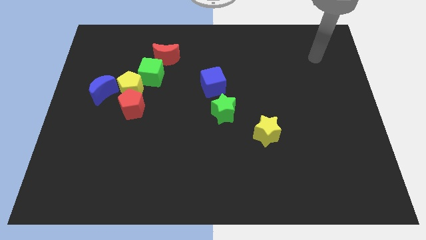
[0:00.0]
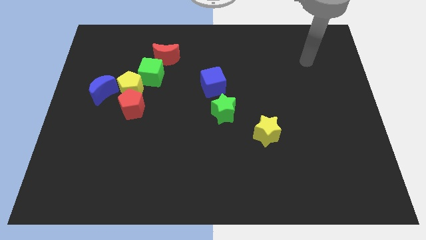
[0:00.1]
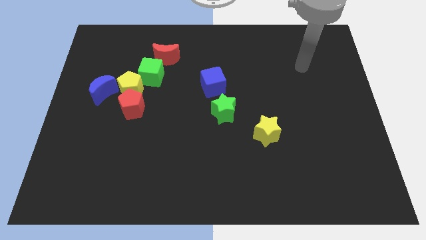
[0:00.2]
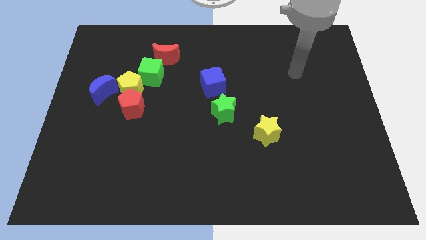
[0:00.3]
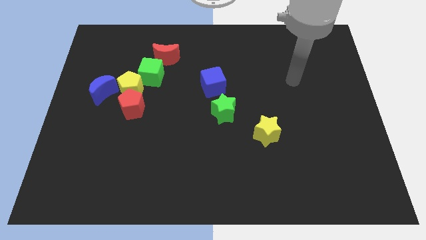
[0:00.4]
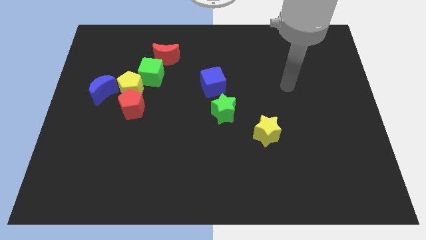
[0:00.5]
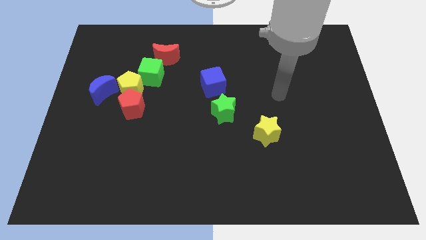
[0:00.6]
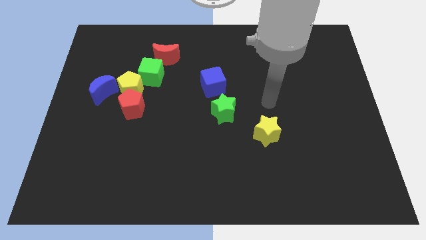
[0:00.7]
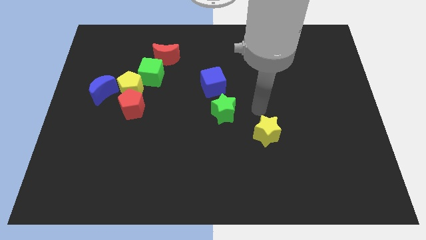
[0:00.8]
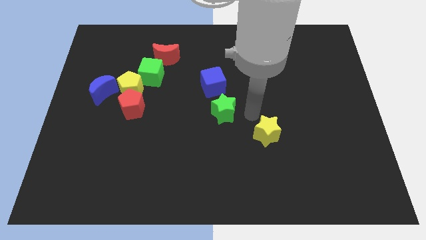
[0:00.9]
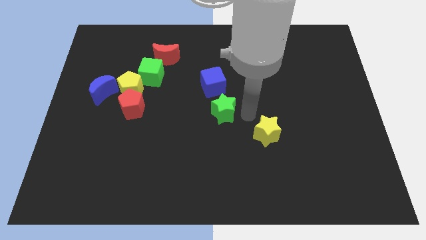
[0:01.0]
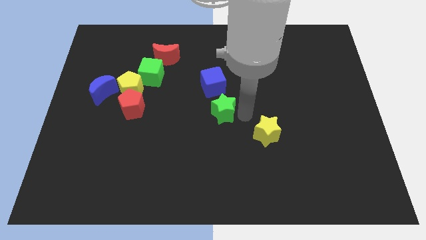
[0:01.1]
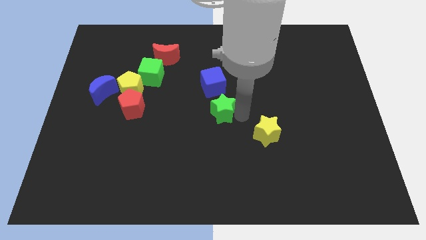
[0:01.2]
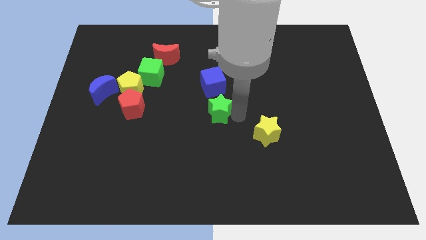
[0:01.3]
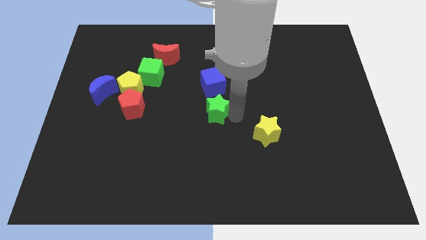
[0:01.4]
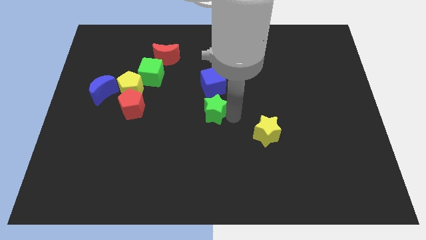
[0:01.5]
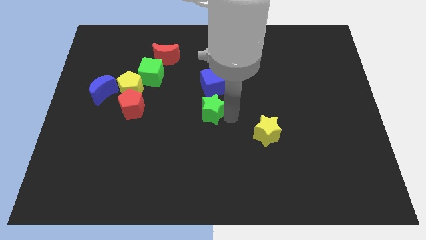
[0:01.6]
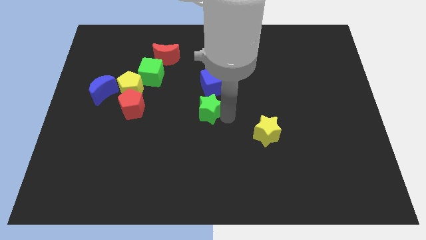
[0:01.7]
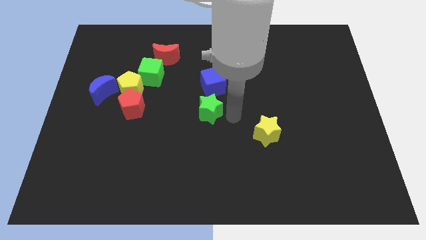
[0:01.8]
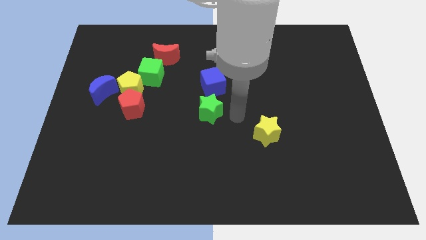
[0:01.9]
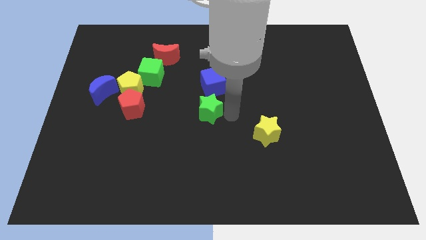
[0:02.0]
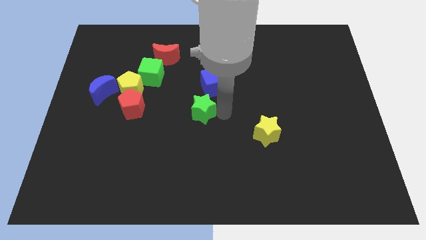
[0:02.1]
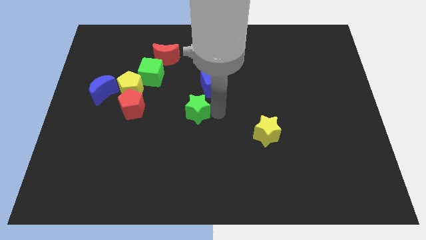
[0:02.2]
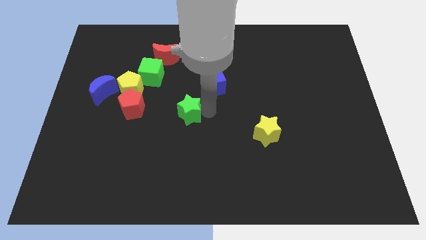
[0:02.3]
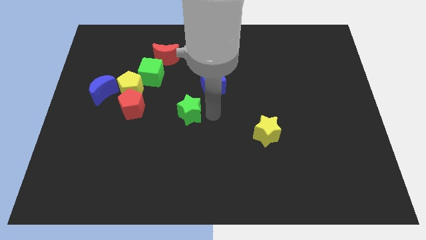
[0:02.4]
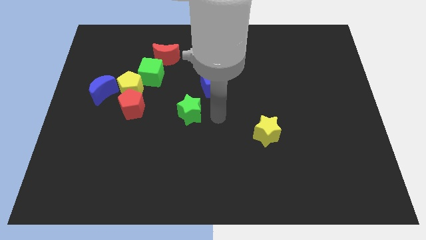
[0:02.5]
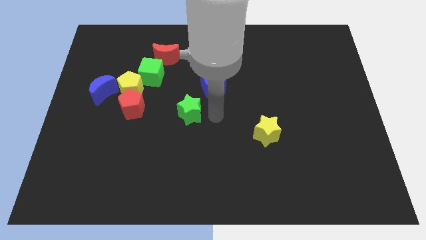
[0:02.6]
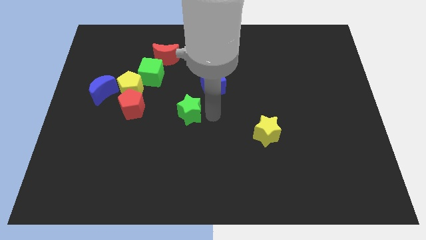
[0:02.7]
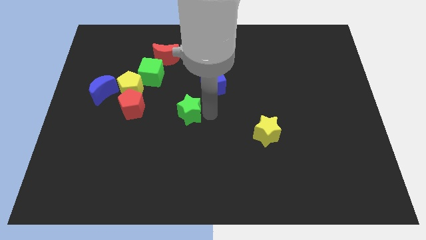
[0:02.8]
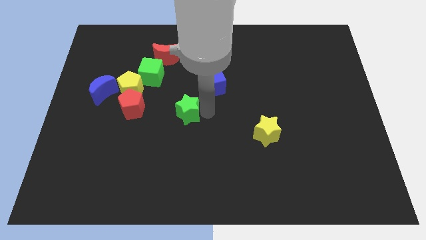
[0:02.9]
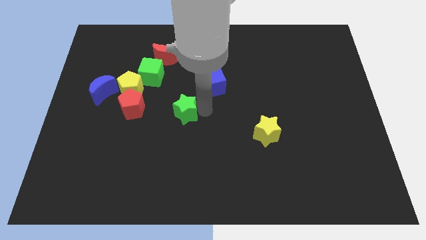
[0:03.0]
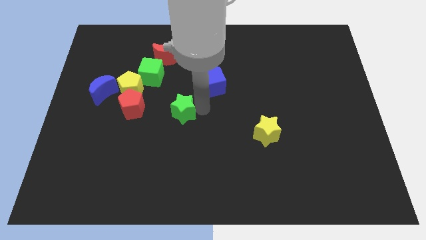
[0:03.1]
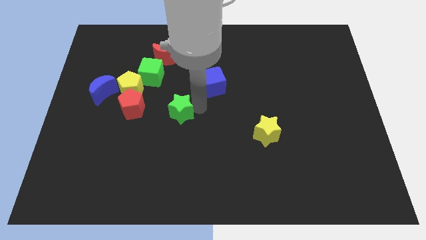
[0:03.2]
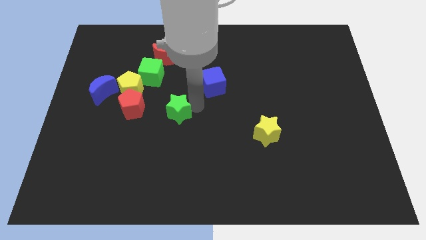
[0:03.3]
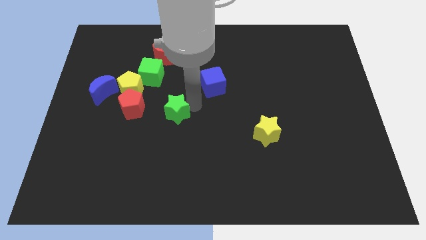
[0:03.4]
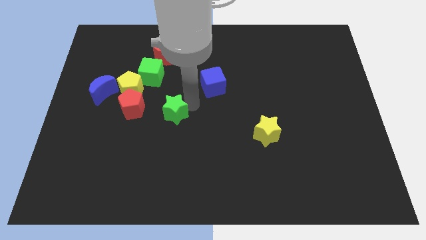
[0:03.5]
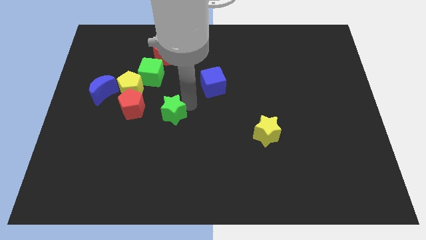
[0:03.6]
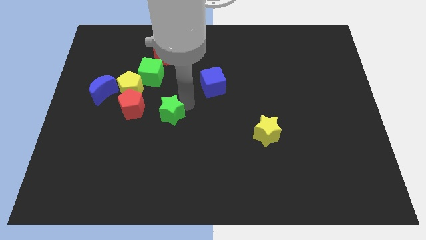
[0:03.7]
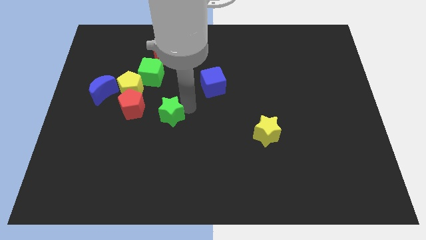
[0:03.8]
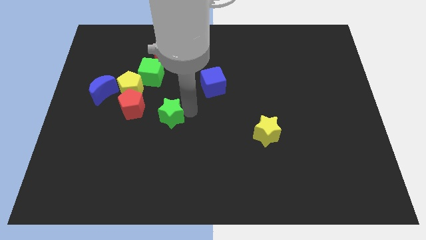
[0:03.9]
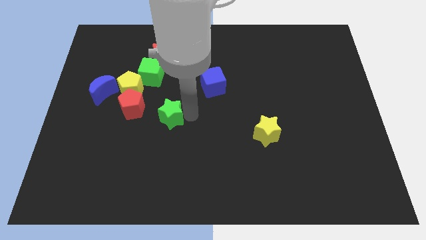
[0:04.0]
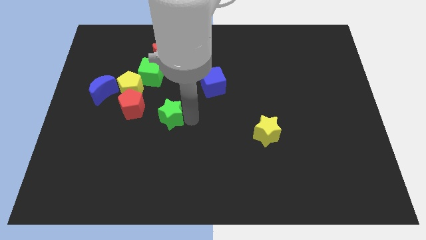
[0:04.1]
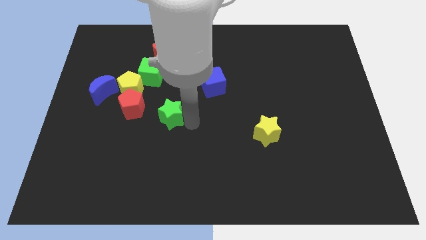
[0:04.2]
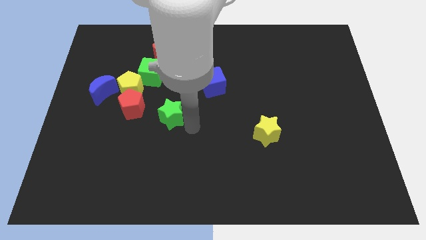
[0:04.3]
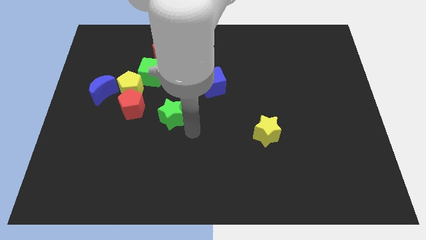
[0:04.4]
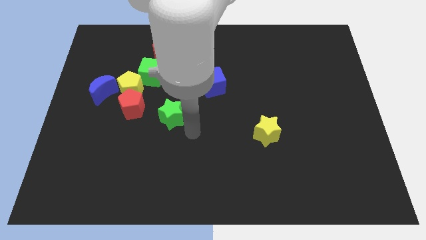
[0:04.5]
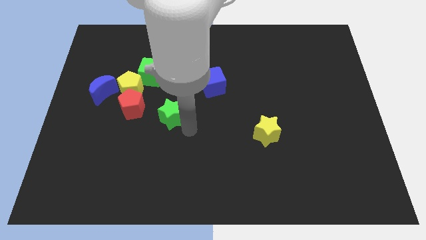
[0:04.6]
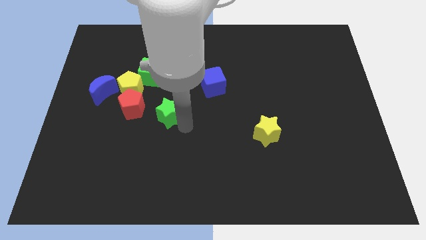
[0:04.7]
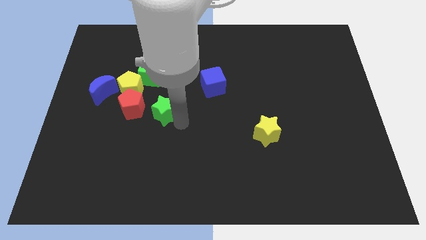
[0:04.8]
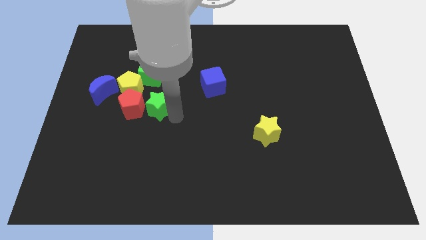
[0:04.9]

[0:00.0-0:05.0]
put the green star to the red pentagon

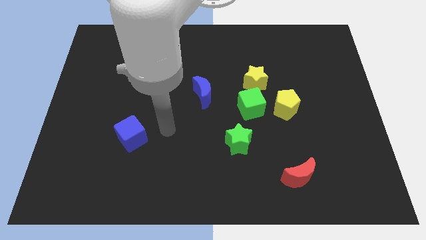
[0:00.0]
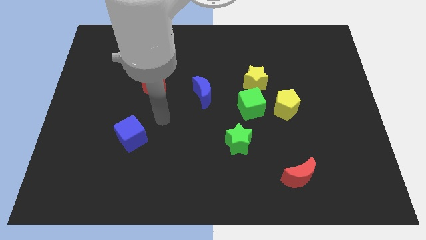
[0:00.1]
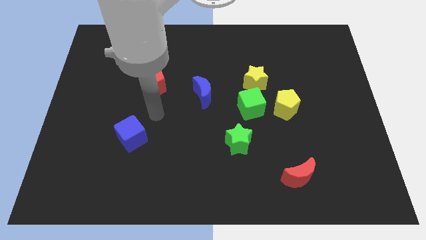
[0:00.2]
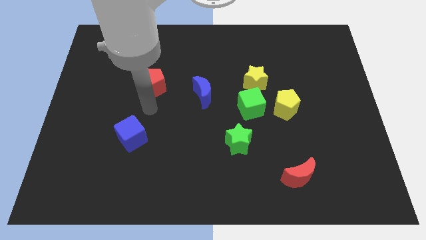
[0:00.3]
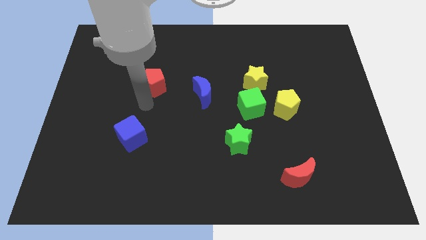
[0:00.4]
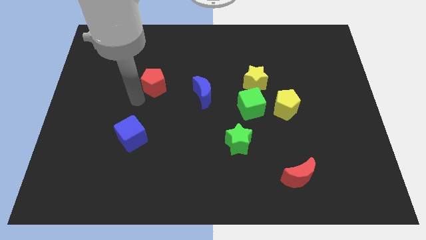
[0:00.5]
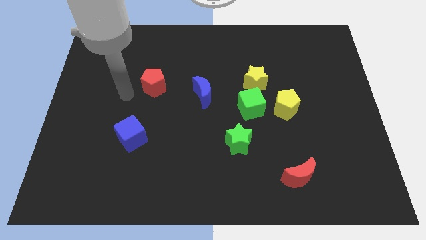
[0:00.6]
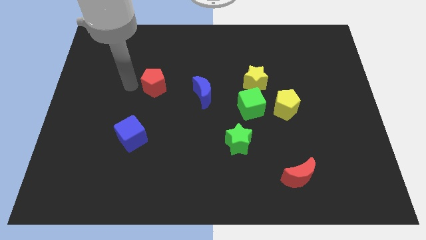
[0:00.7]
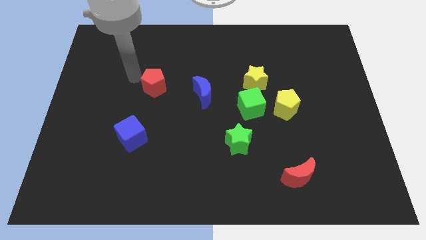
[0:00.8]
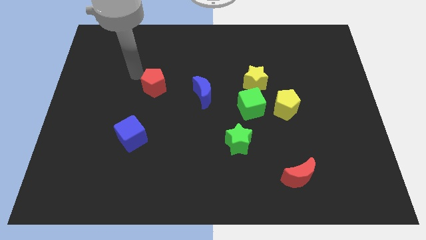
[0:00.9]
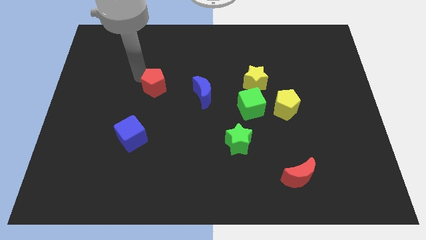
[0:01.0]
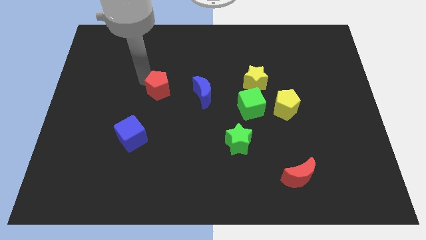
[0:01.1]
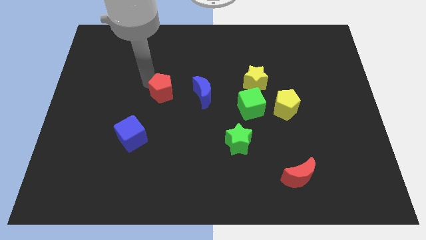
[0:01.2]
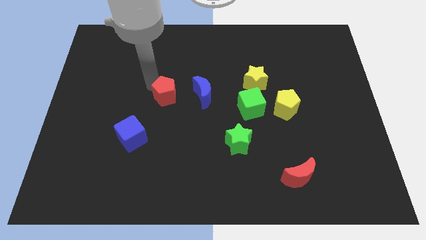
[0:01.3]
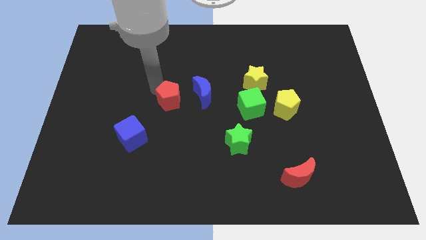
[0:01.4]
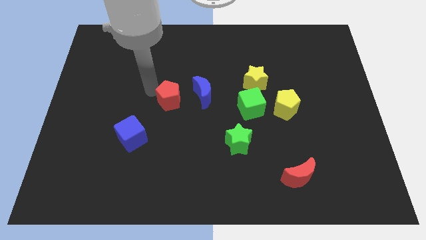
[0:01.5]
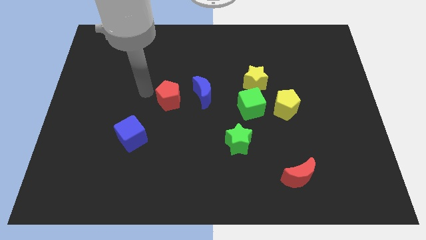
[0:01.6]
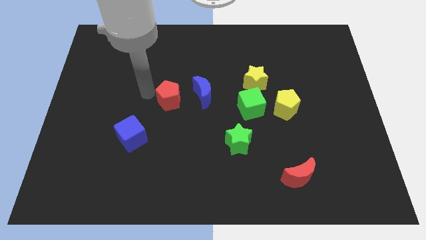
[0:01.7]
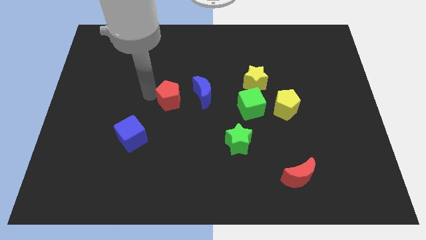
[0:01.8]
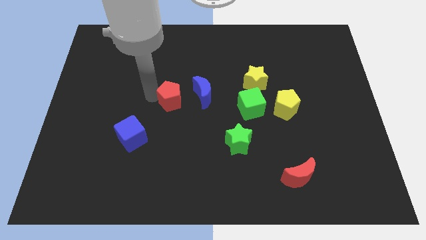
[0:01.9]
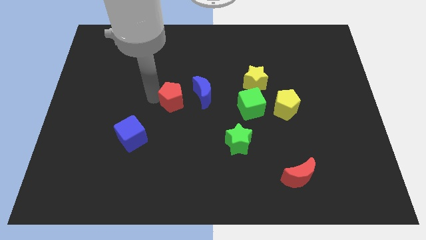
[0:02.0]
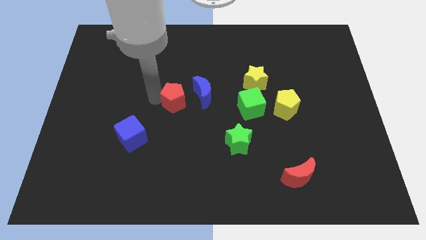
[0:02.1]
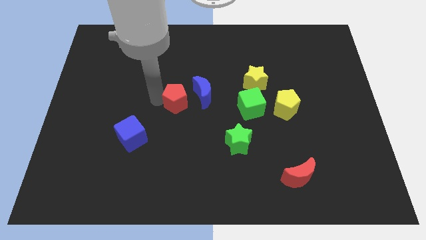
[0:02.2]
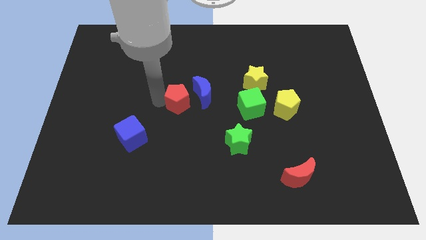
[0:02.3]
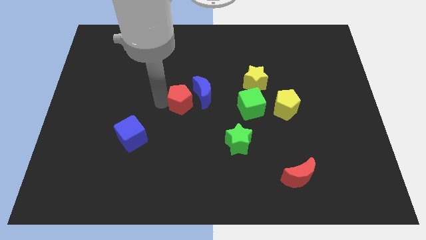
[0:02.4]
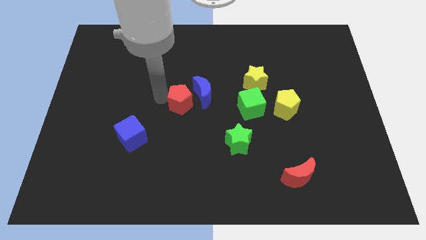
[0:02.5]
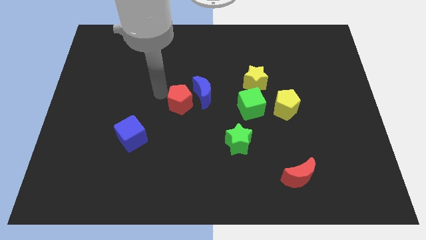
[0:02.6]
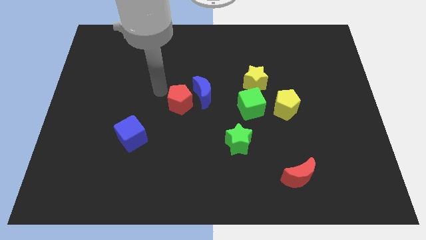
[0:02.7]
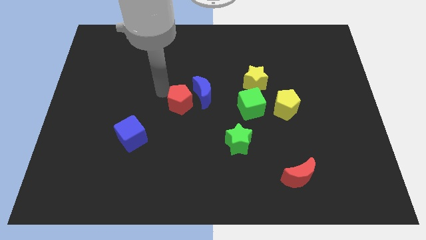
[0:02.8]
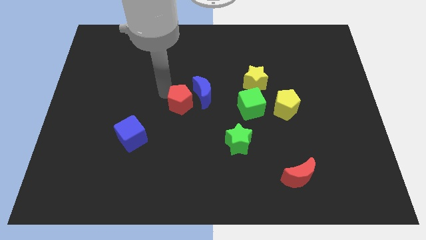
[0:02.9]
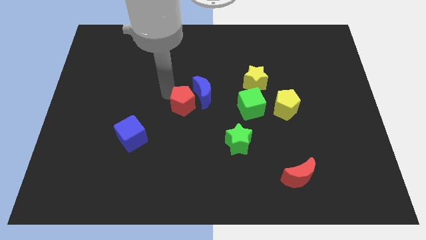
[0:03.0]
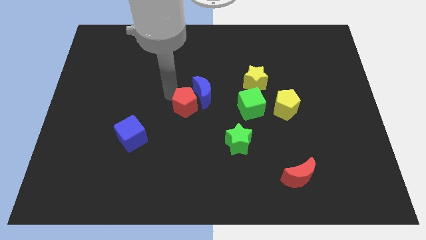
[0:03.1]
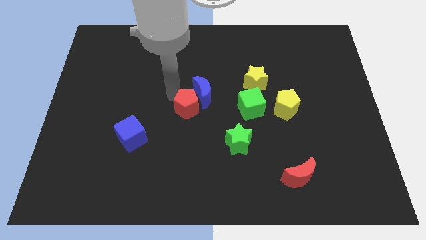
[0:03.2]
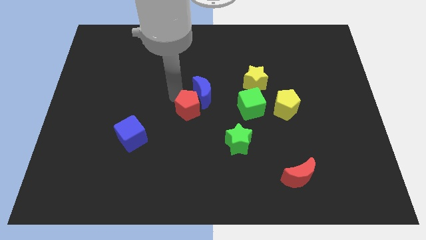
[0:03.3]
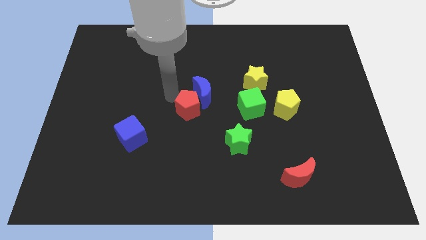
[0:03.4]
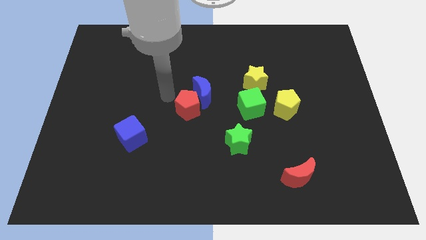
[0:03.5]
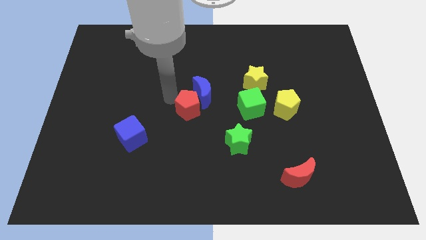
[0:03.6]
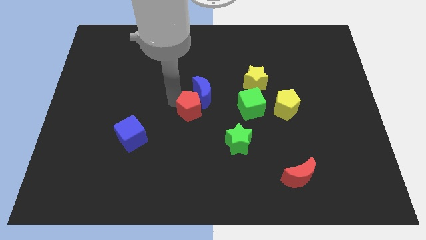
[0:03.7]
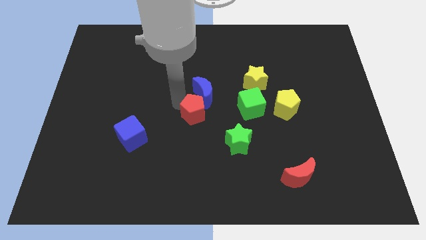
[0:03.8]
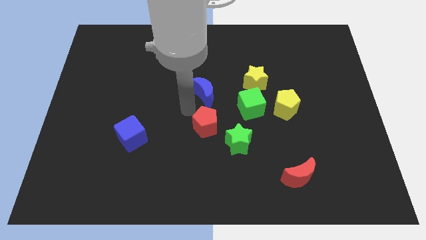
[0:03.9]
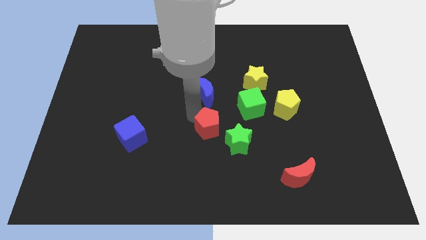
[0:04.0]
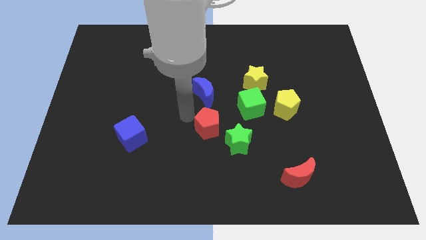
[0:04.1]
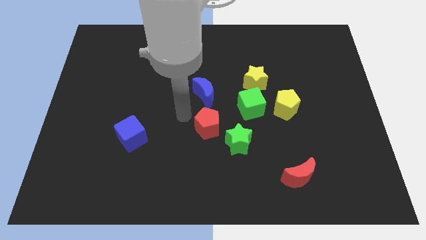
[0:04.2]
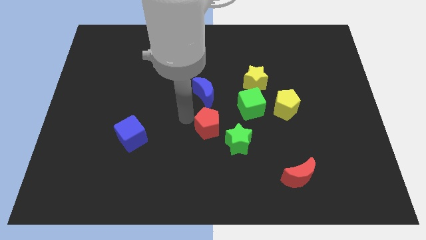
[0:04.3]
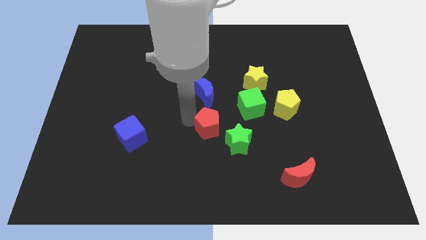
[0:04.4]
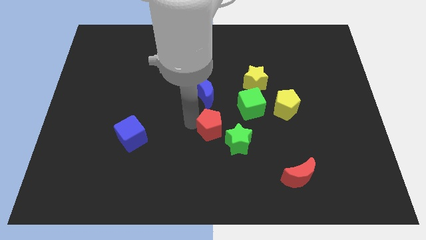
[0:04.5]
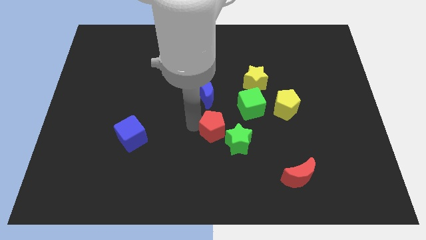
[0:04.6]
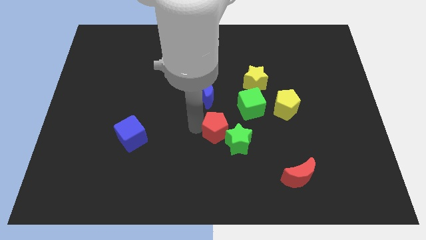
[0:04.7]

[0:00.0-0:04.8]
put the red pentagon to the green star
